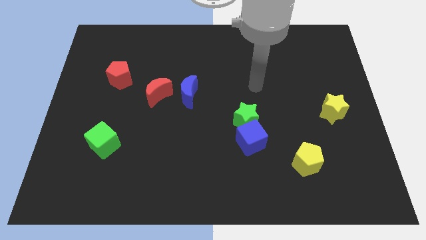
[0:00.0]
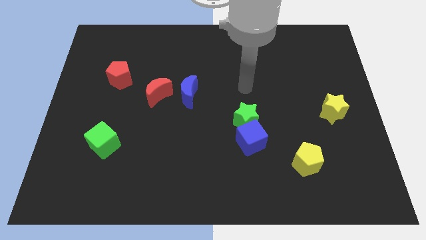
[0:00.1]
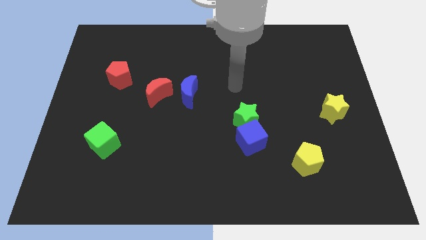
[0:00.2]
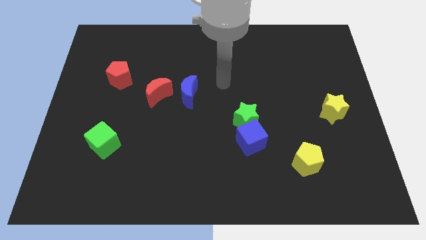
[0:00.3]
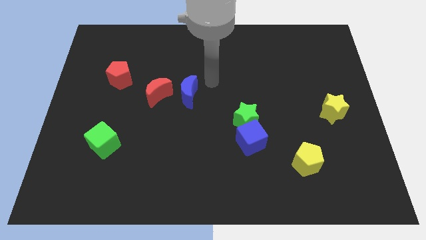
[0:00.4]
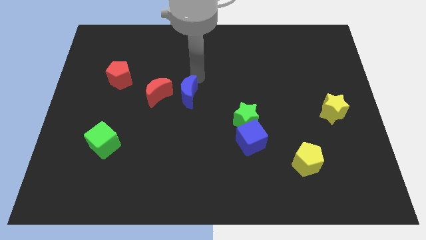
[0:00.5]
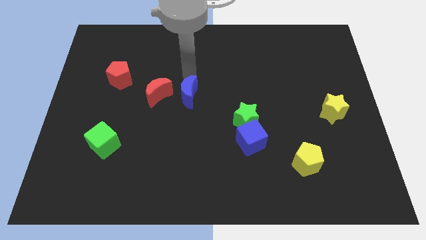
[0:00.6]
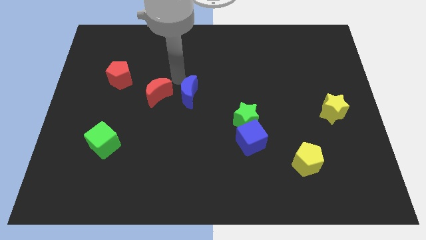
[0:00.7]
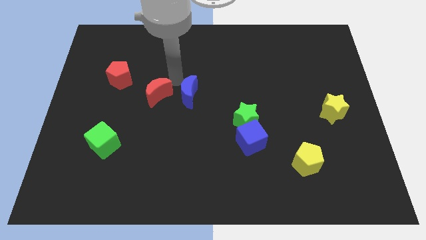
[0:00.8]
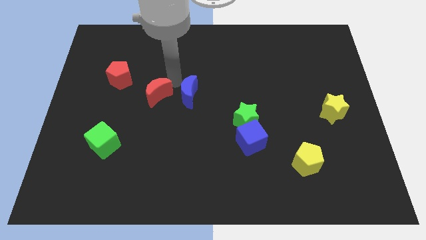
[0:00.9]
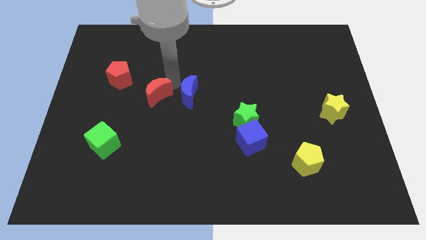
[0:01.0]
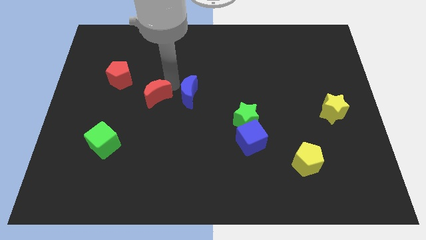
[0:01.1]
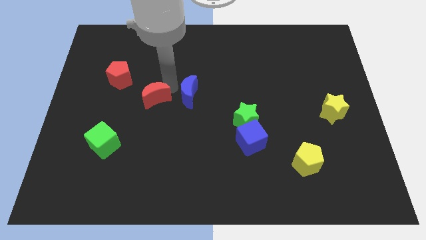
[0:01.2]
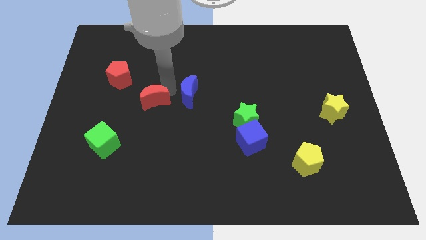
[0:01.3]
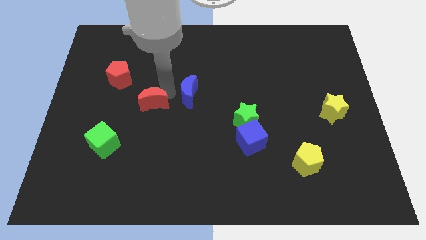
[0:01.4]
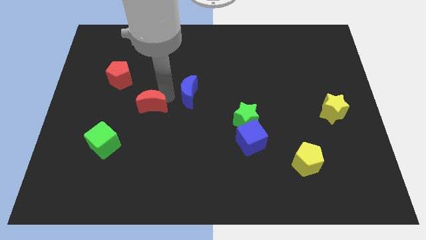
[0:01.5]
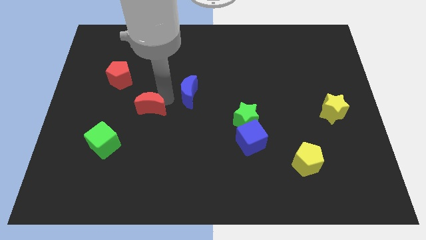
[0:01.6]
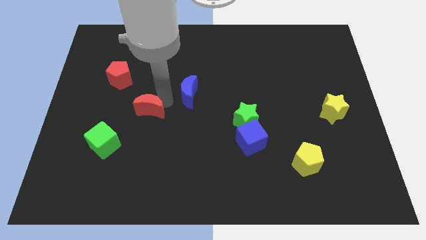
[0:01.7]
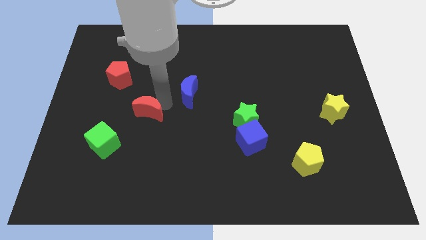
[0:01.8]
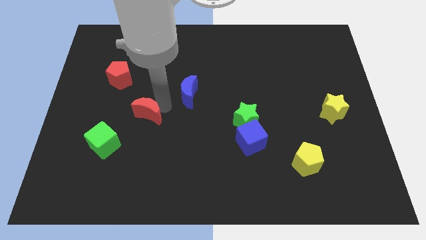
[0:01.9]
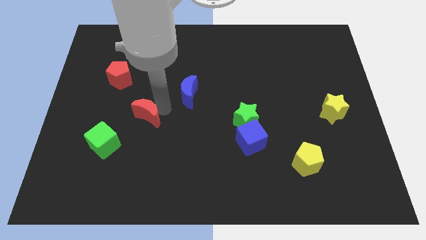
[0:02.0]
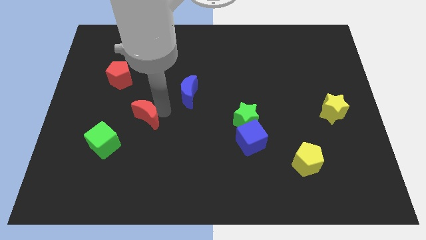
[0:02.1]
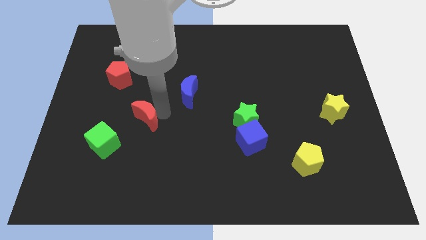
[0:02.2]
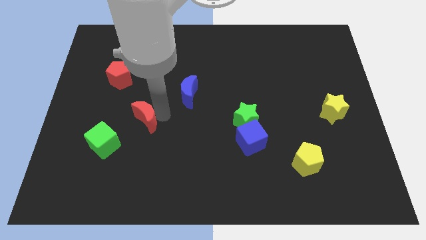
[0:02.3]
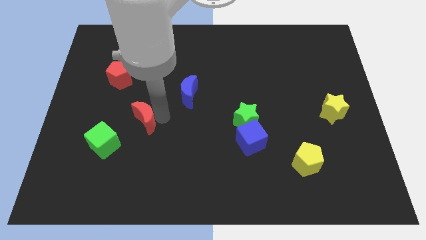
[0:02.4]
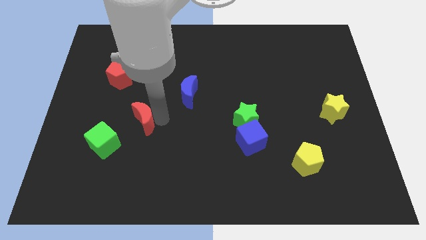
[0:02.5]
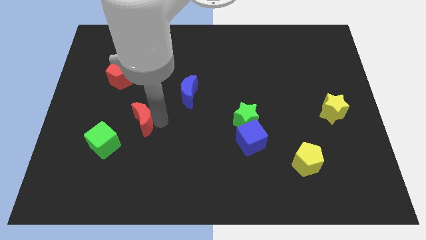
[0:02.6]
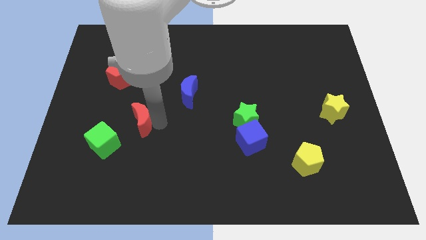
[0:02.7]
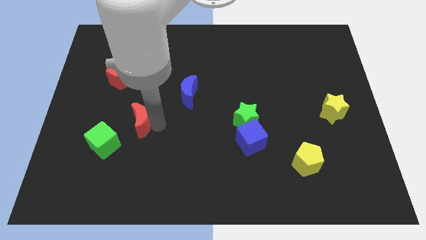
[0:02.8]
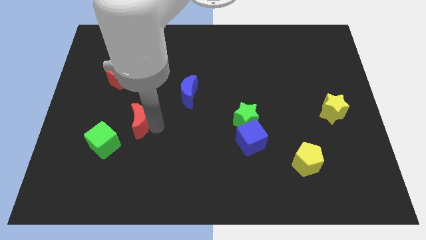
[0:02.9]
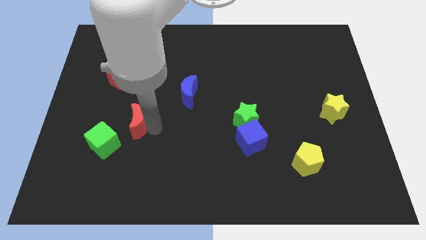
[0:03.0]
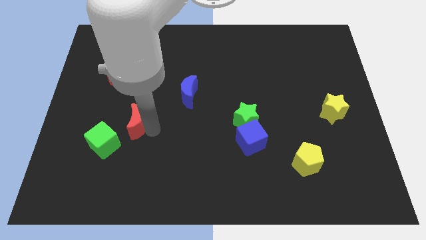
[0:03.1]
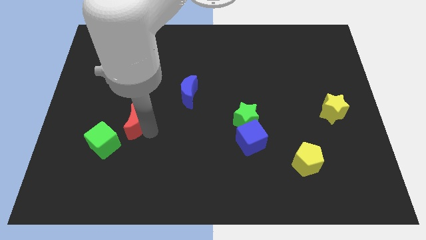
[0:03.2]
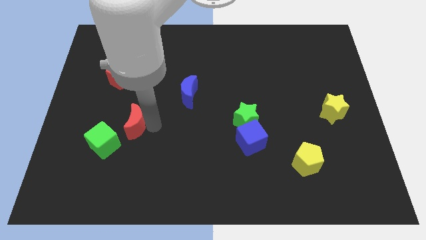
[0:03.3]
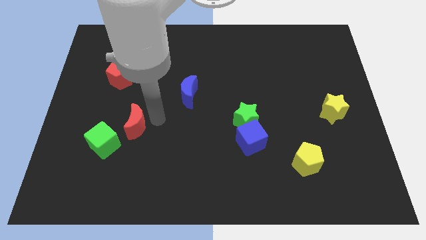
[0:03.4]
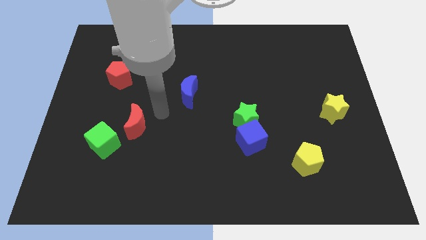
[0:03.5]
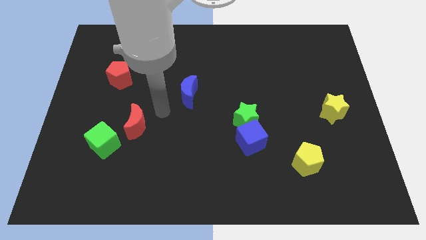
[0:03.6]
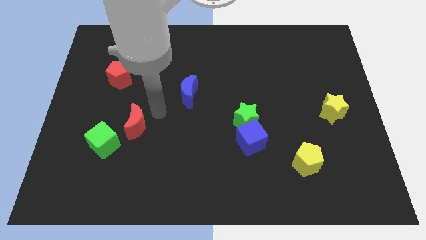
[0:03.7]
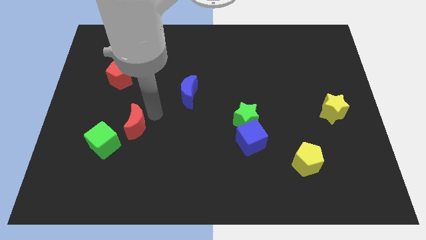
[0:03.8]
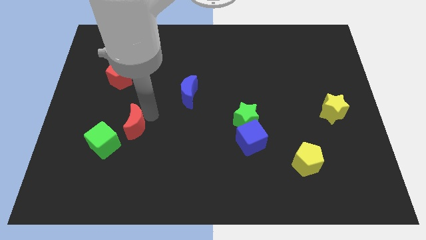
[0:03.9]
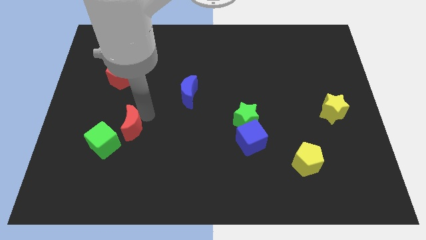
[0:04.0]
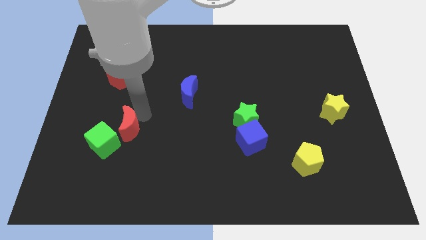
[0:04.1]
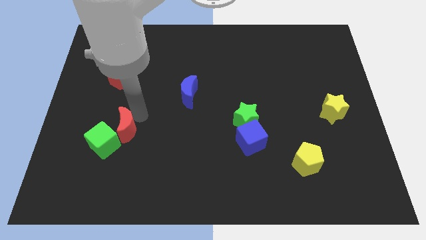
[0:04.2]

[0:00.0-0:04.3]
move the red moon towards the green cube

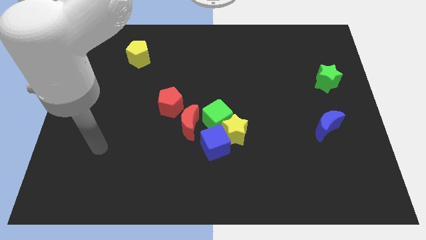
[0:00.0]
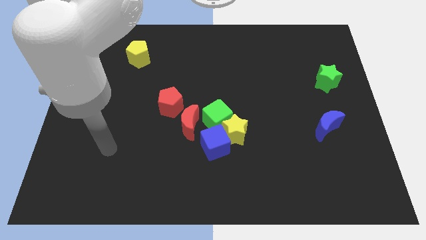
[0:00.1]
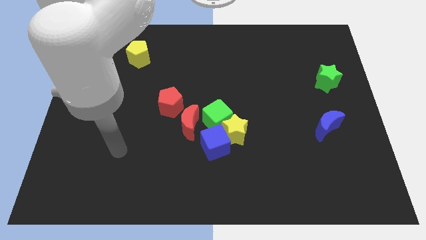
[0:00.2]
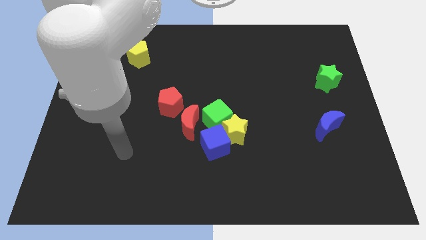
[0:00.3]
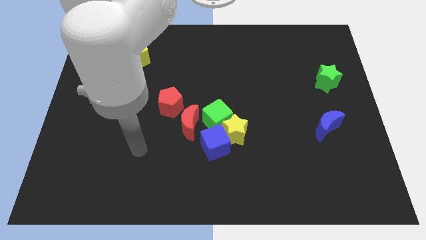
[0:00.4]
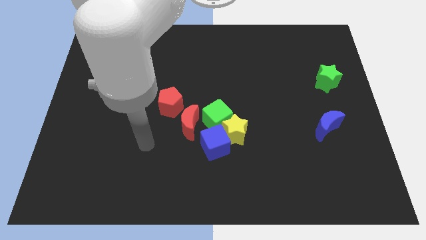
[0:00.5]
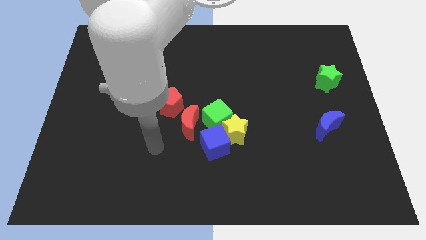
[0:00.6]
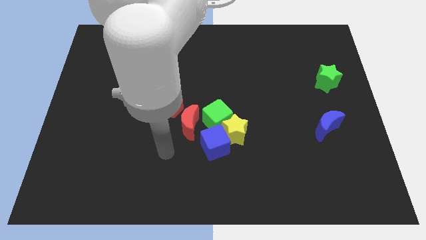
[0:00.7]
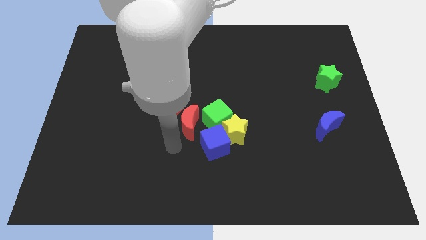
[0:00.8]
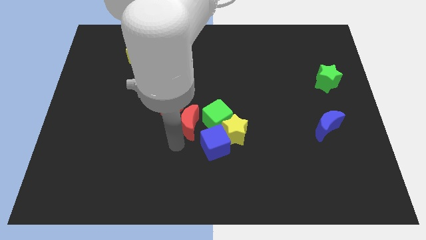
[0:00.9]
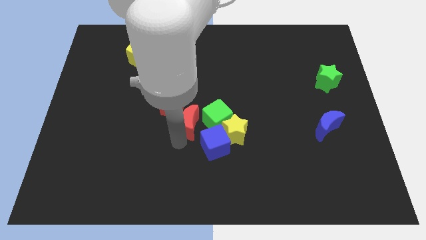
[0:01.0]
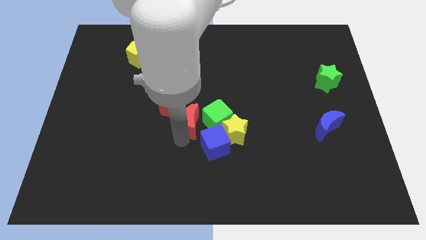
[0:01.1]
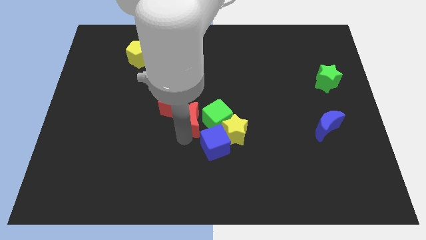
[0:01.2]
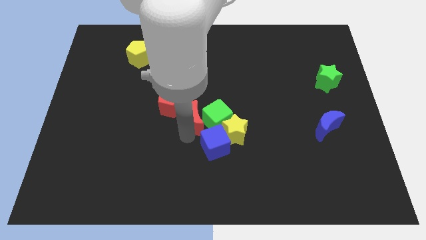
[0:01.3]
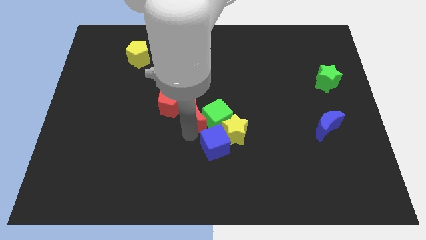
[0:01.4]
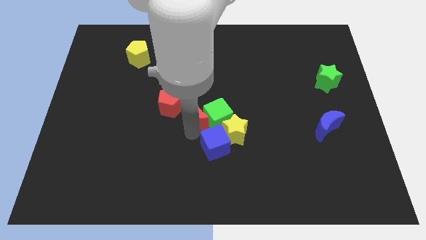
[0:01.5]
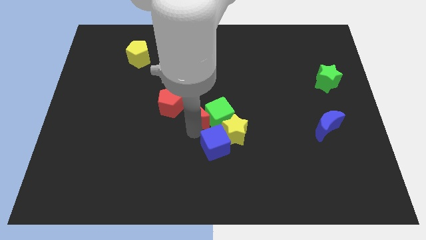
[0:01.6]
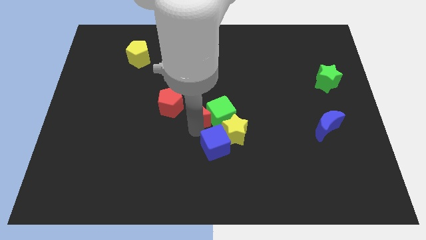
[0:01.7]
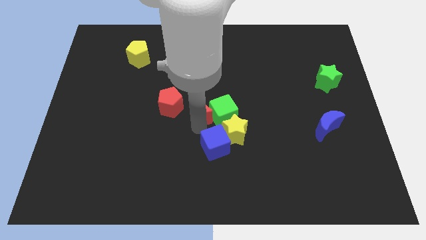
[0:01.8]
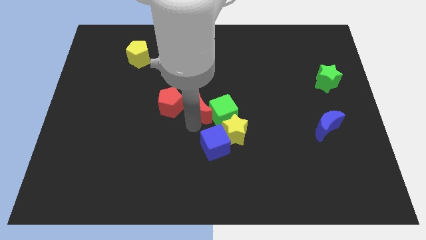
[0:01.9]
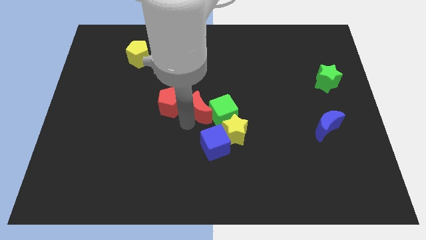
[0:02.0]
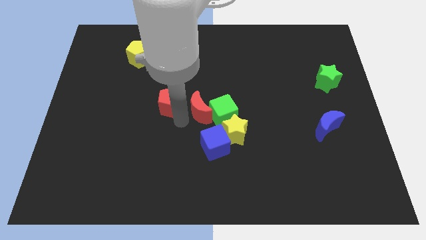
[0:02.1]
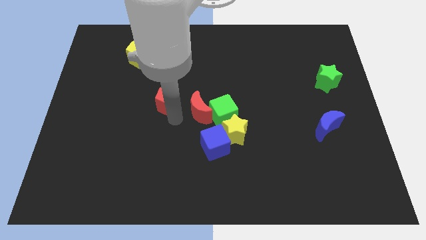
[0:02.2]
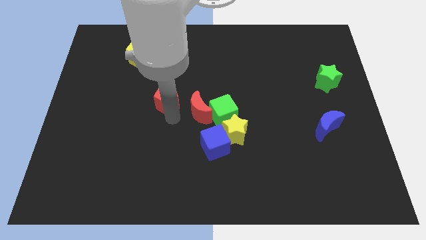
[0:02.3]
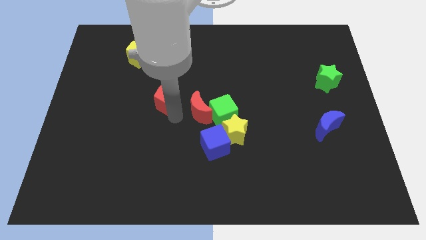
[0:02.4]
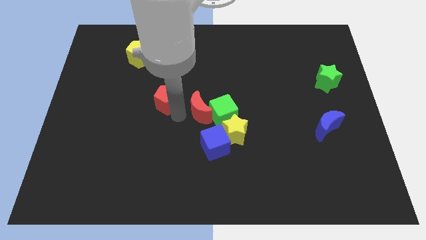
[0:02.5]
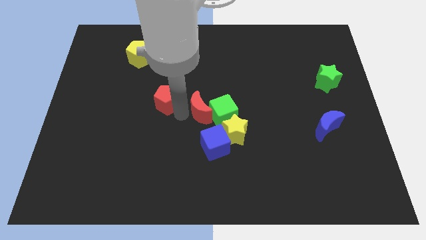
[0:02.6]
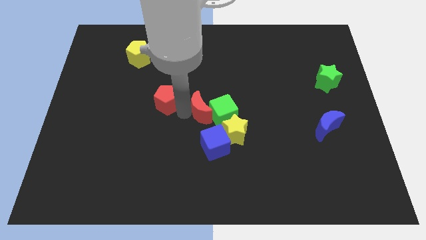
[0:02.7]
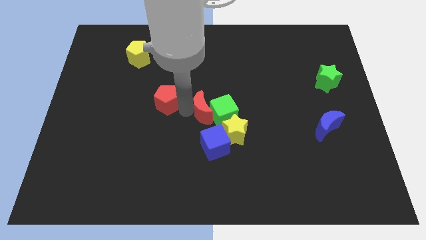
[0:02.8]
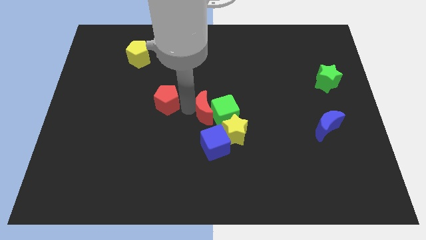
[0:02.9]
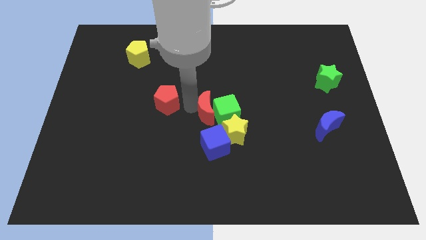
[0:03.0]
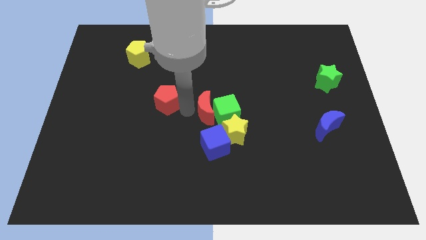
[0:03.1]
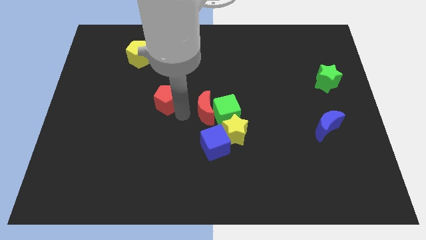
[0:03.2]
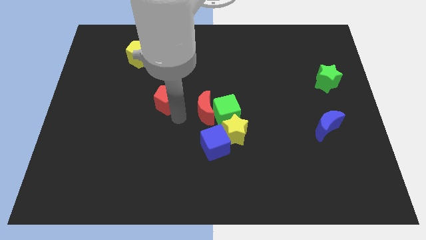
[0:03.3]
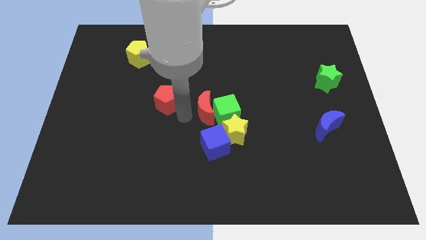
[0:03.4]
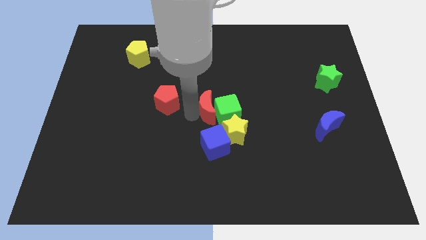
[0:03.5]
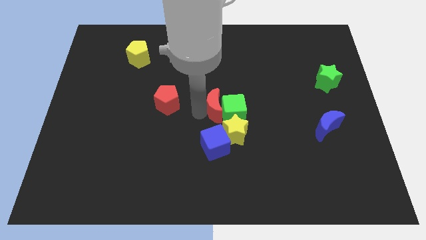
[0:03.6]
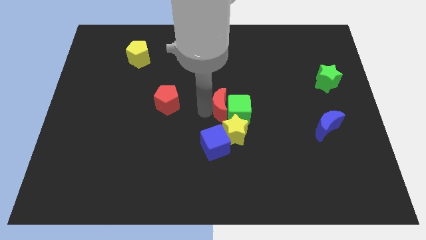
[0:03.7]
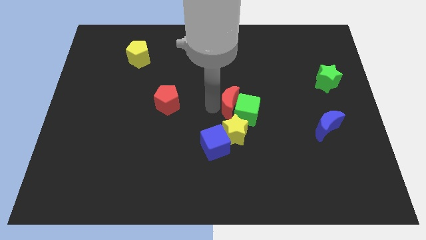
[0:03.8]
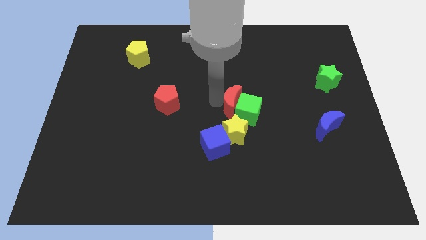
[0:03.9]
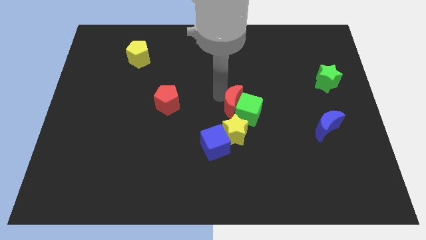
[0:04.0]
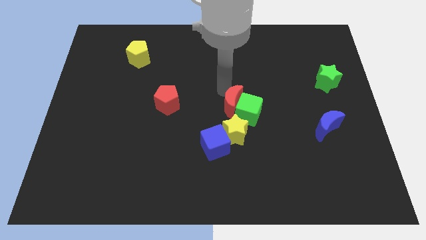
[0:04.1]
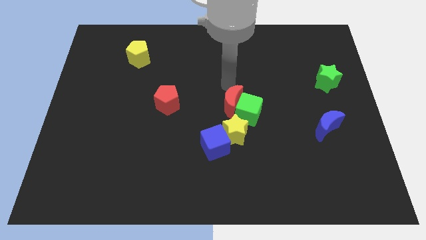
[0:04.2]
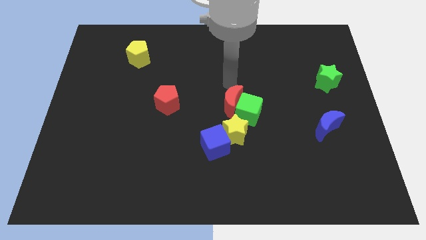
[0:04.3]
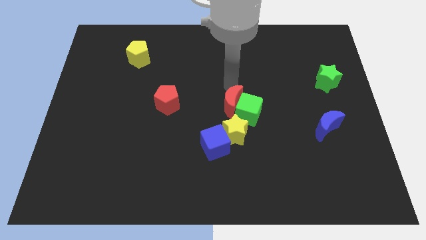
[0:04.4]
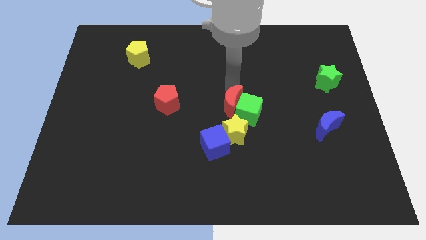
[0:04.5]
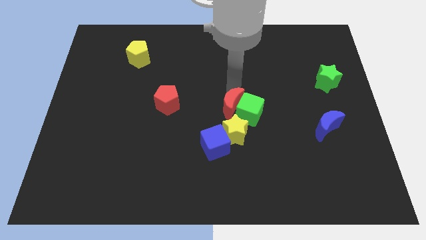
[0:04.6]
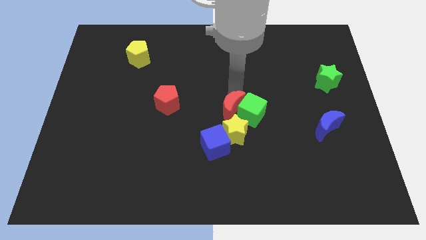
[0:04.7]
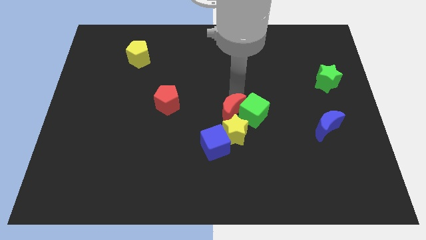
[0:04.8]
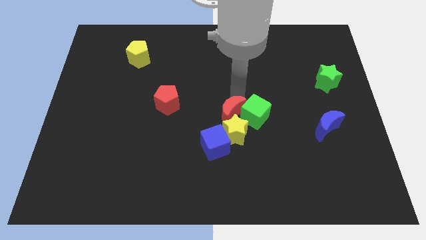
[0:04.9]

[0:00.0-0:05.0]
put the red moon close to the yellow star
